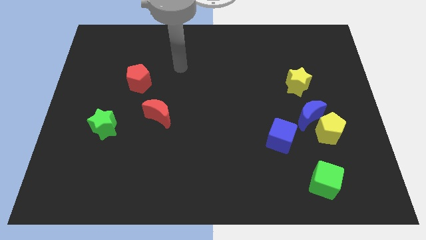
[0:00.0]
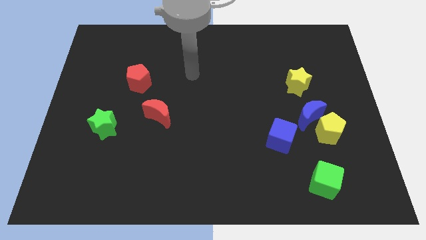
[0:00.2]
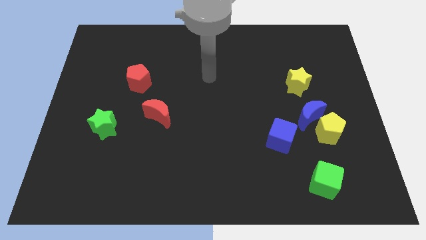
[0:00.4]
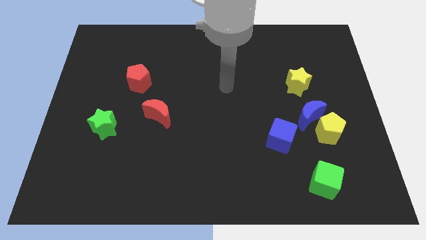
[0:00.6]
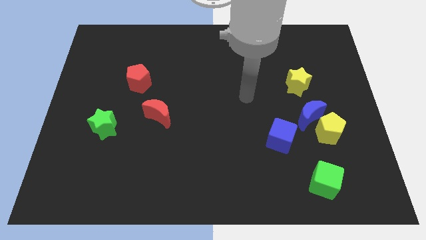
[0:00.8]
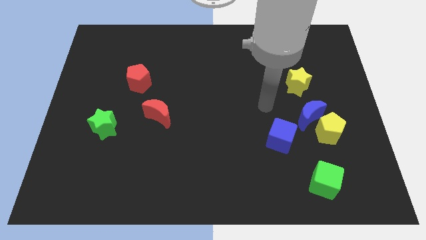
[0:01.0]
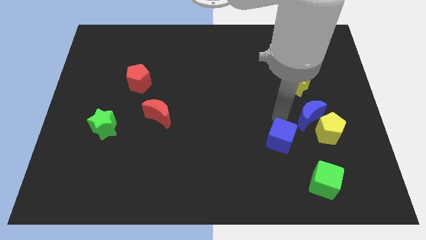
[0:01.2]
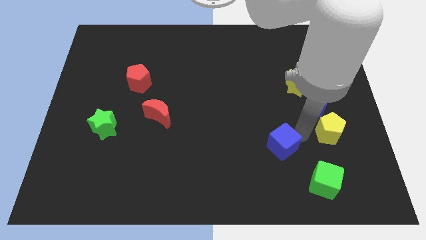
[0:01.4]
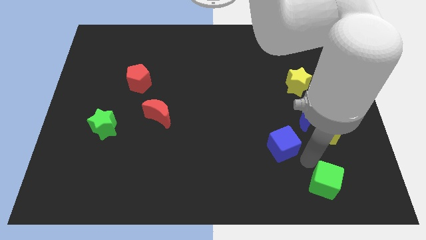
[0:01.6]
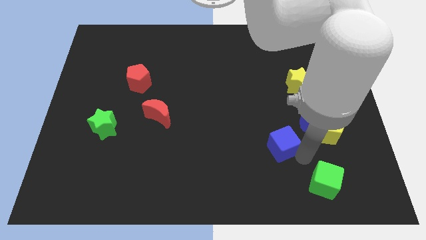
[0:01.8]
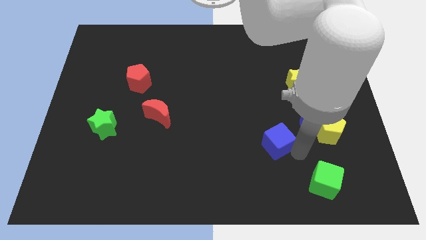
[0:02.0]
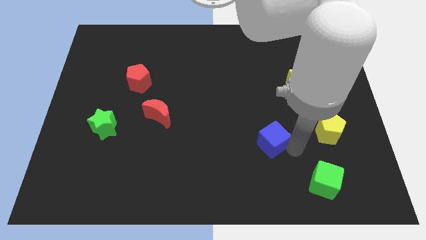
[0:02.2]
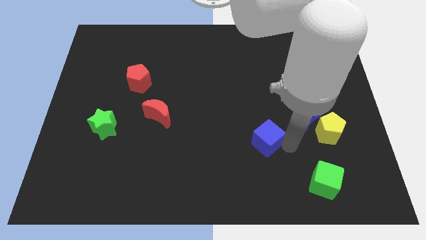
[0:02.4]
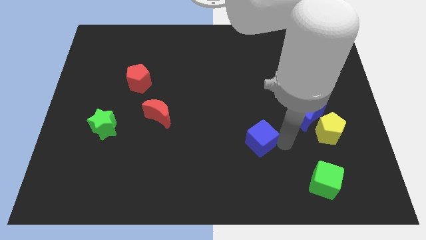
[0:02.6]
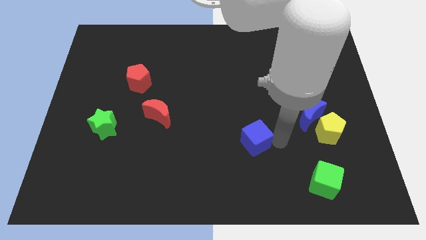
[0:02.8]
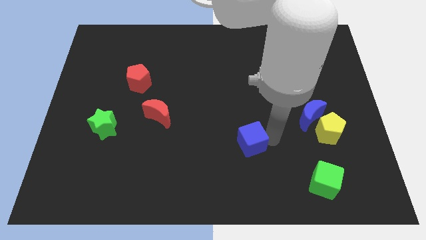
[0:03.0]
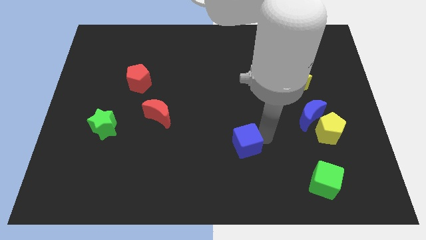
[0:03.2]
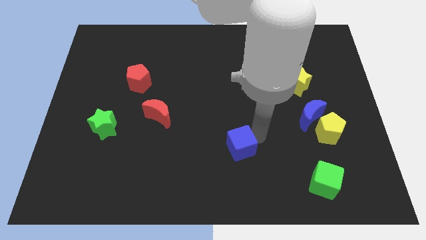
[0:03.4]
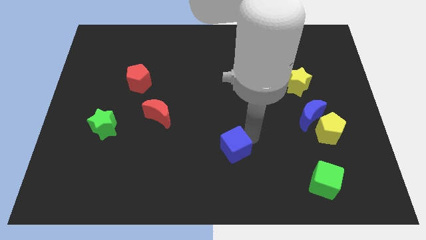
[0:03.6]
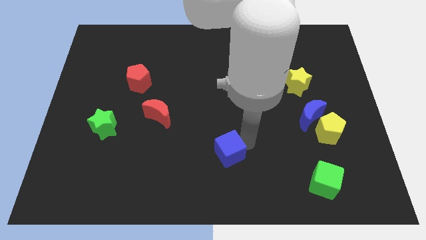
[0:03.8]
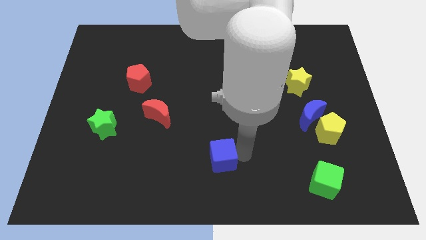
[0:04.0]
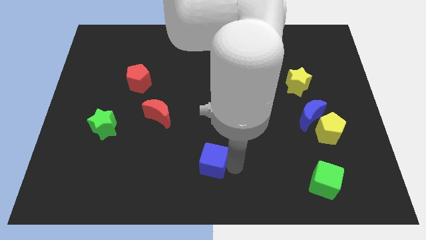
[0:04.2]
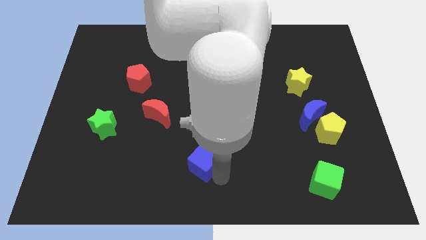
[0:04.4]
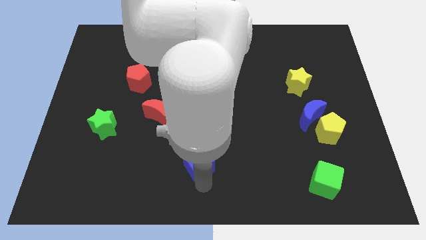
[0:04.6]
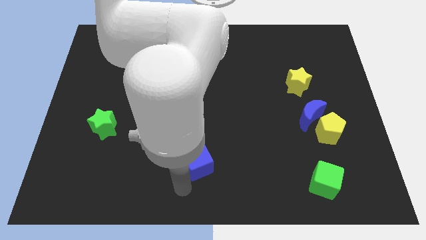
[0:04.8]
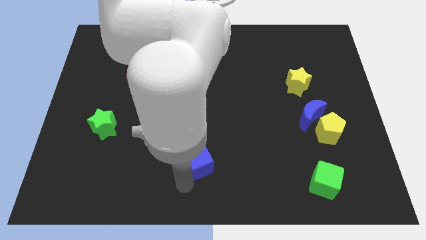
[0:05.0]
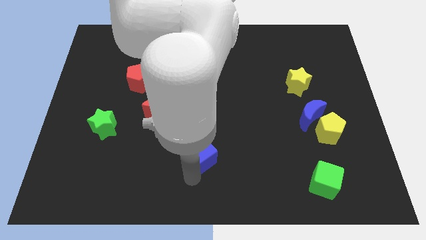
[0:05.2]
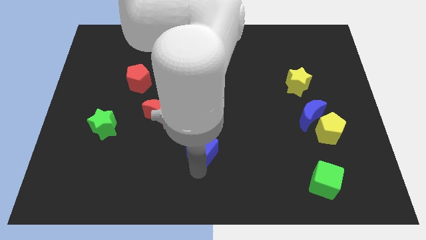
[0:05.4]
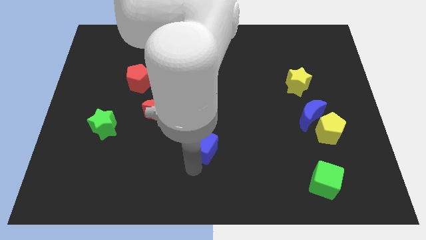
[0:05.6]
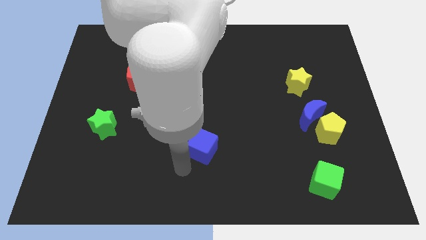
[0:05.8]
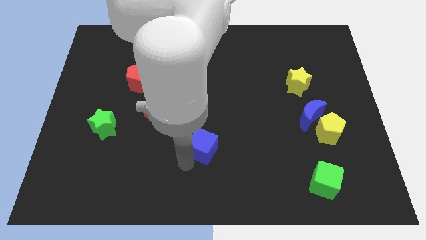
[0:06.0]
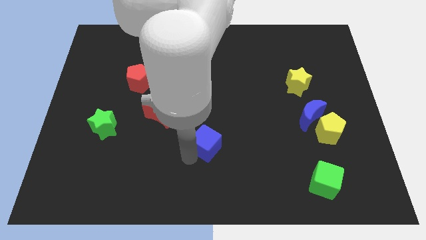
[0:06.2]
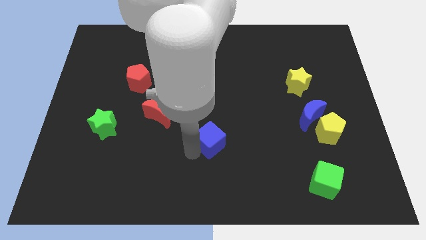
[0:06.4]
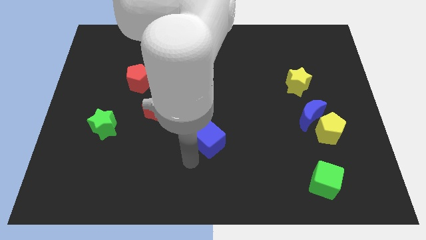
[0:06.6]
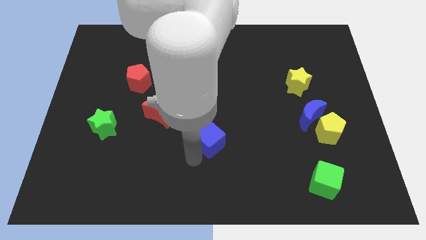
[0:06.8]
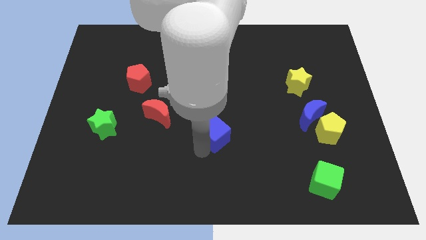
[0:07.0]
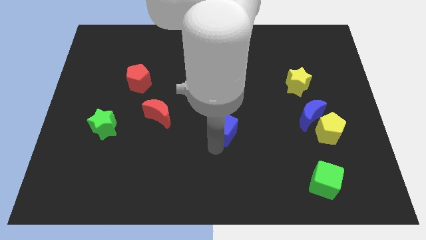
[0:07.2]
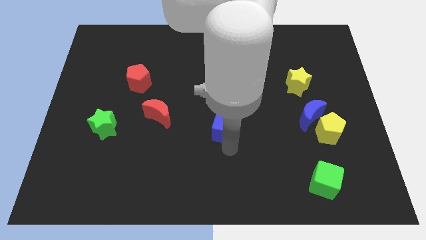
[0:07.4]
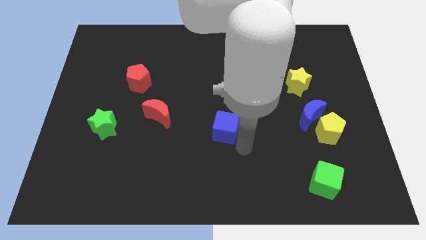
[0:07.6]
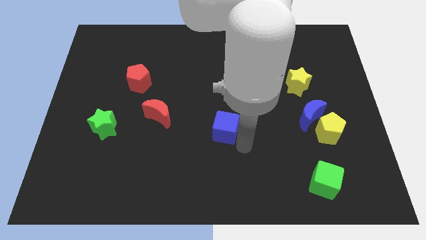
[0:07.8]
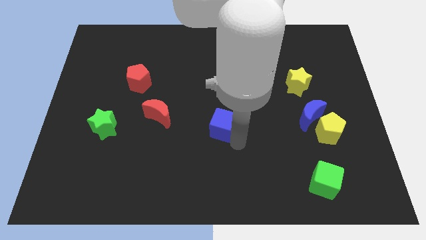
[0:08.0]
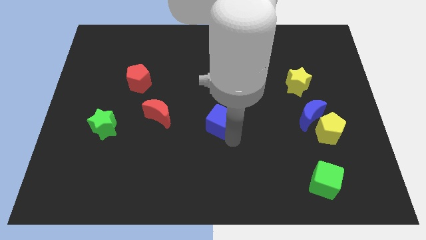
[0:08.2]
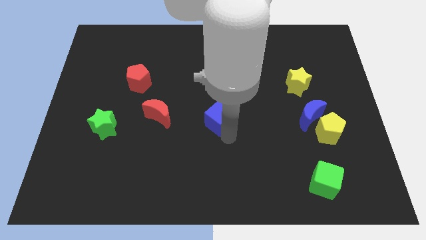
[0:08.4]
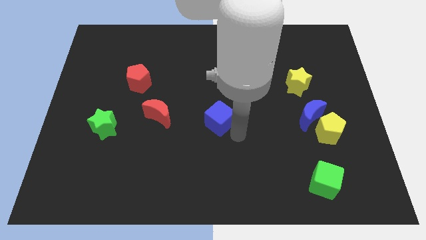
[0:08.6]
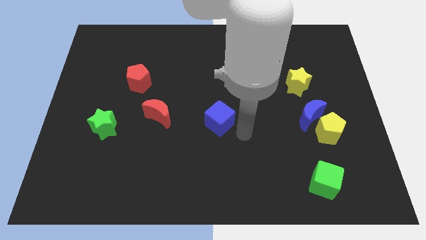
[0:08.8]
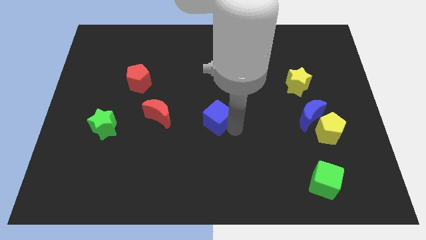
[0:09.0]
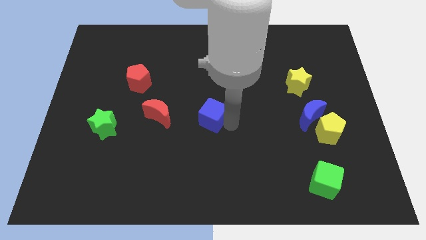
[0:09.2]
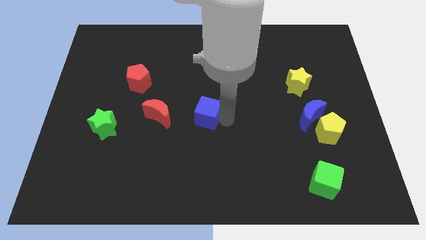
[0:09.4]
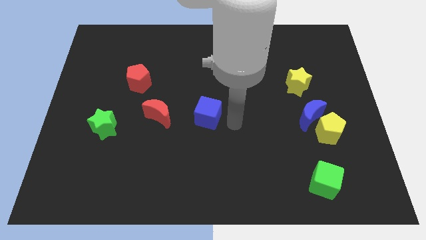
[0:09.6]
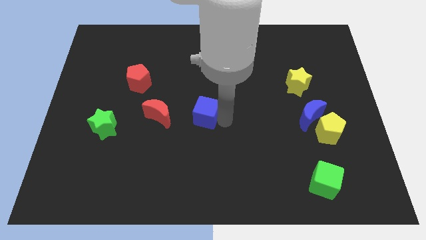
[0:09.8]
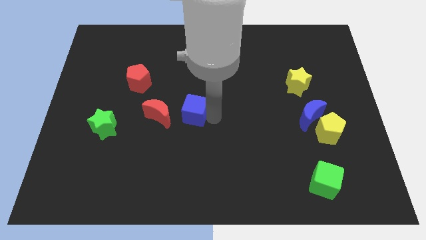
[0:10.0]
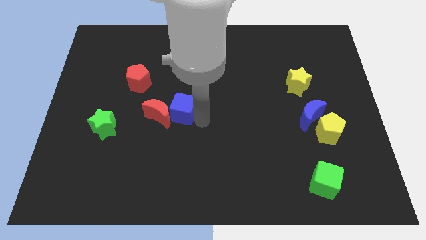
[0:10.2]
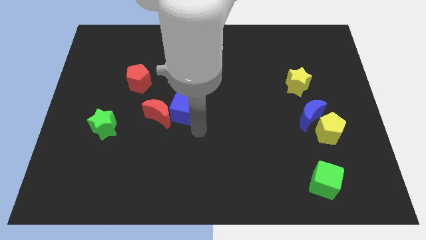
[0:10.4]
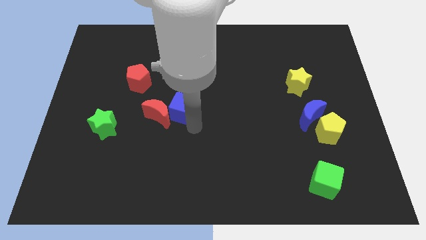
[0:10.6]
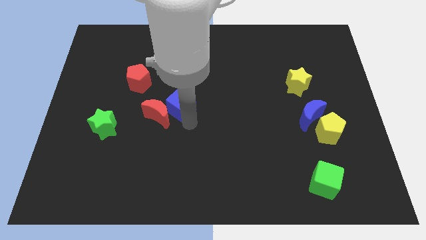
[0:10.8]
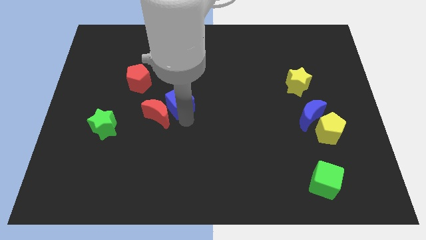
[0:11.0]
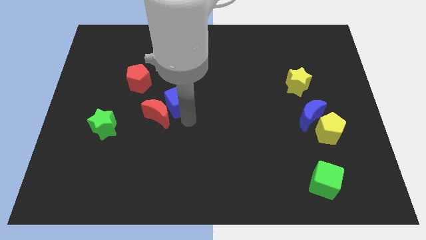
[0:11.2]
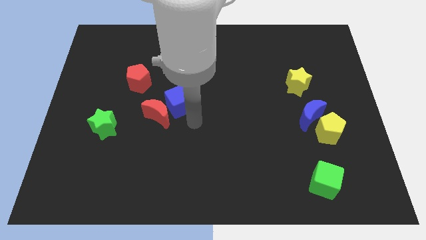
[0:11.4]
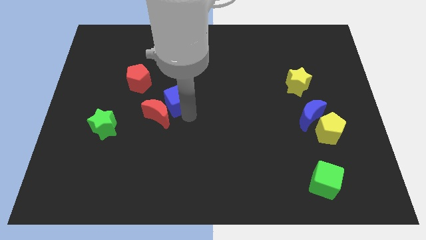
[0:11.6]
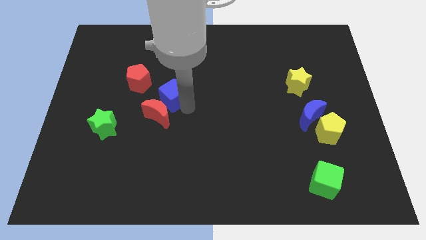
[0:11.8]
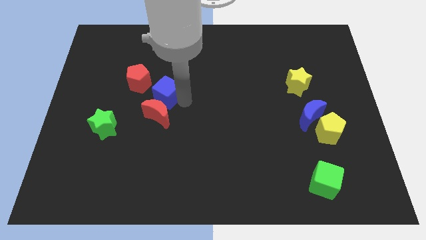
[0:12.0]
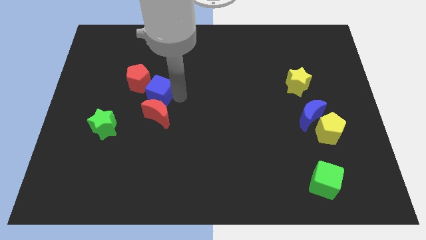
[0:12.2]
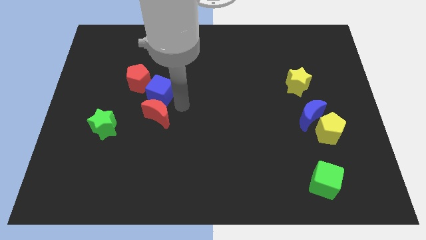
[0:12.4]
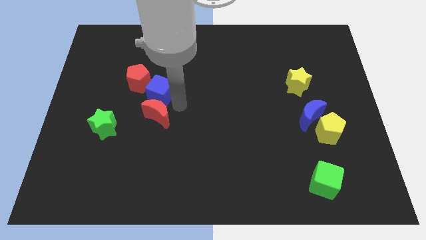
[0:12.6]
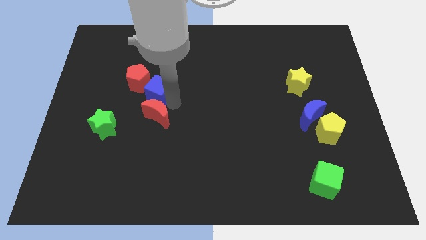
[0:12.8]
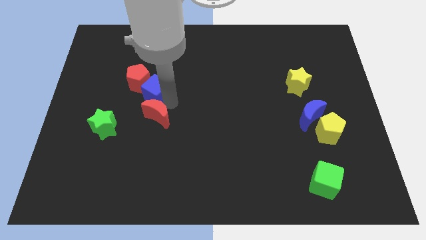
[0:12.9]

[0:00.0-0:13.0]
put the blue cube next to the red pentagon

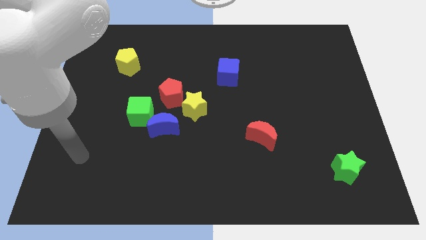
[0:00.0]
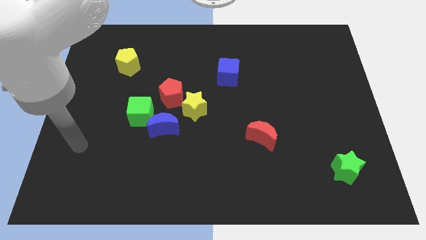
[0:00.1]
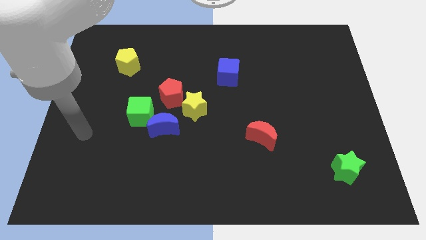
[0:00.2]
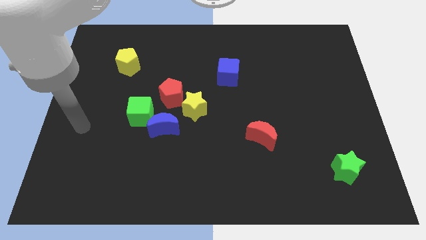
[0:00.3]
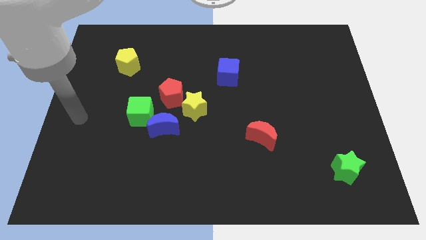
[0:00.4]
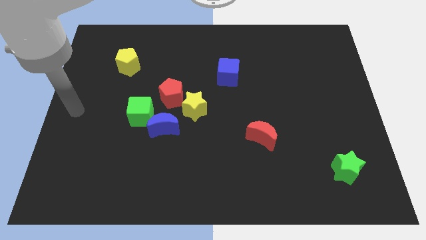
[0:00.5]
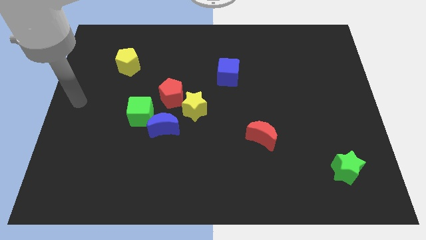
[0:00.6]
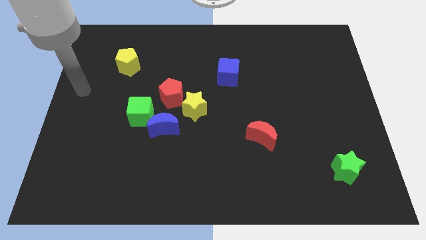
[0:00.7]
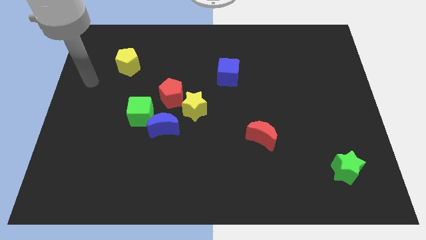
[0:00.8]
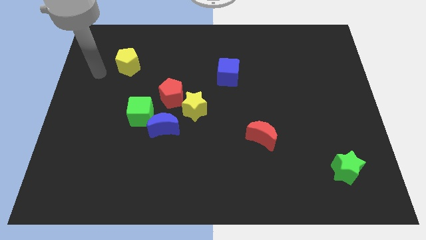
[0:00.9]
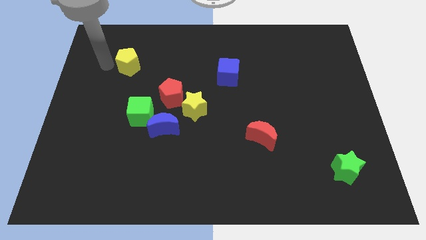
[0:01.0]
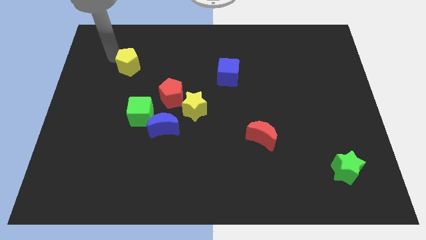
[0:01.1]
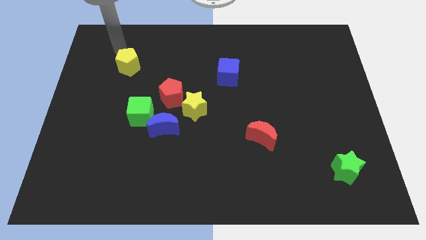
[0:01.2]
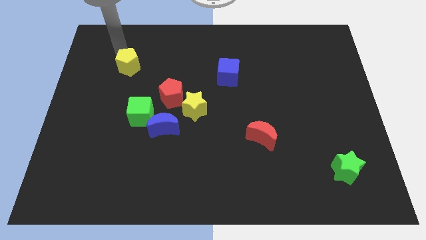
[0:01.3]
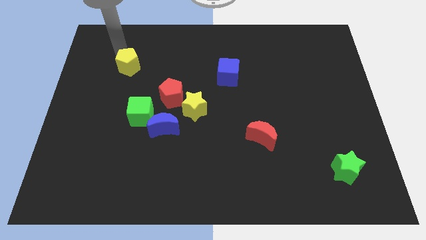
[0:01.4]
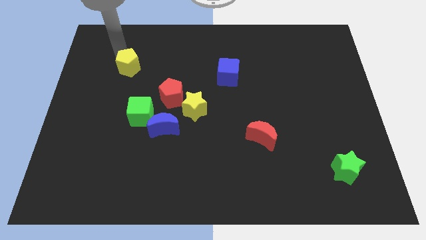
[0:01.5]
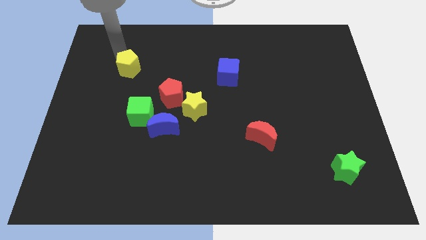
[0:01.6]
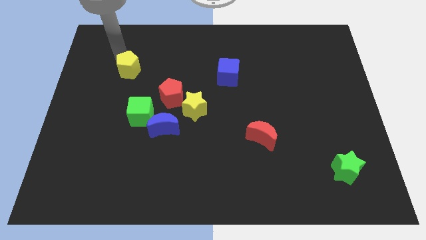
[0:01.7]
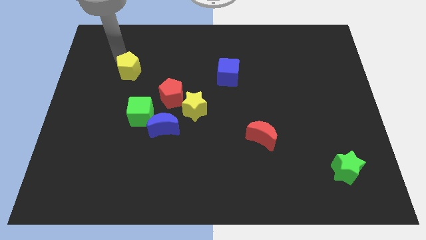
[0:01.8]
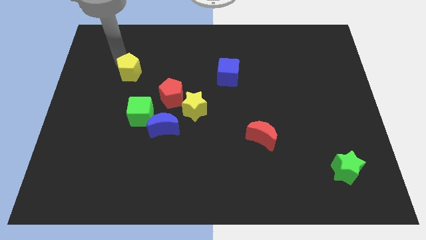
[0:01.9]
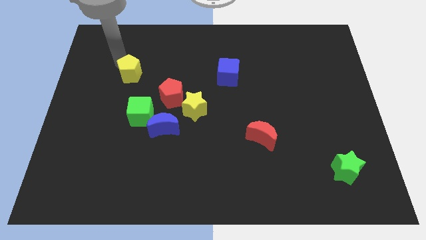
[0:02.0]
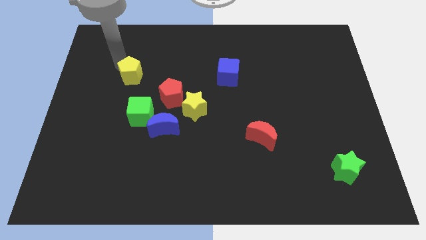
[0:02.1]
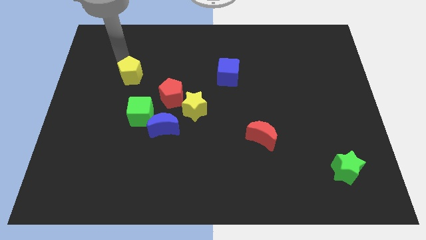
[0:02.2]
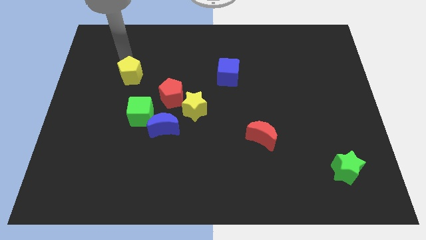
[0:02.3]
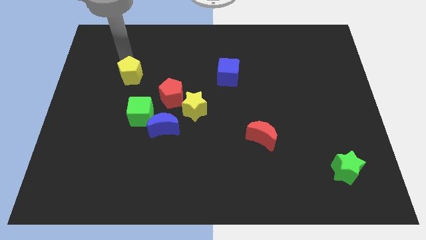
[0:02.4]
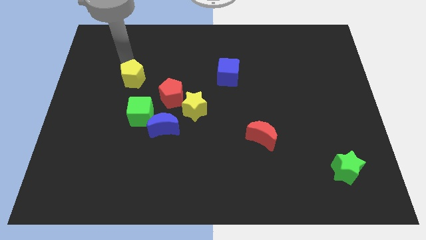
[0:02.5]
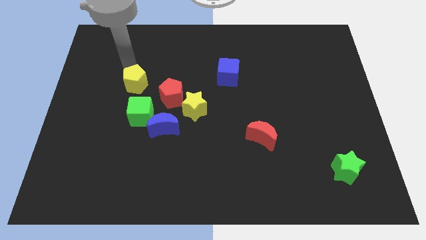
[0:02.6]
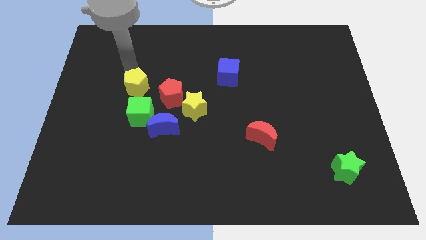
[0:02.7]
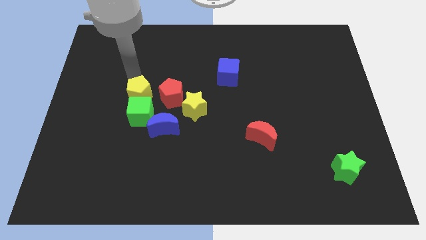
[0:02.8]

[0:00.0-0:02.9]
push the yellow pentagon to the green cube
